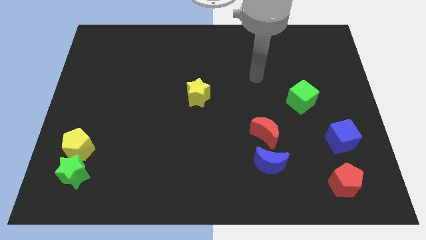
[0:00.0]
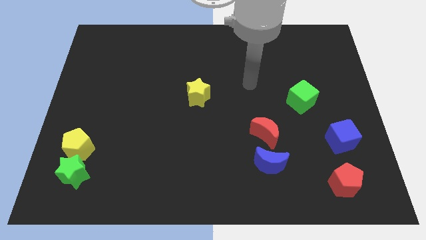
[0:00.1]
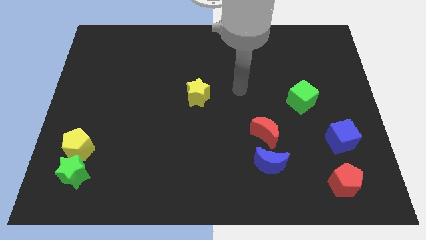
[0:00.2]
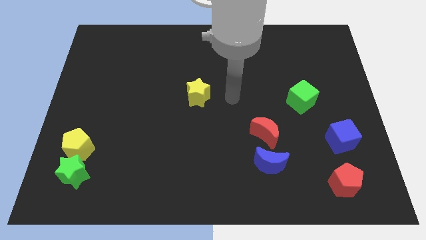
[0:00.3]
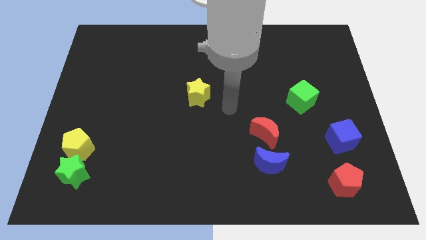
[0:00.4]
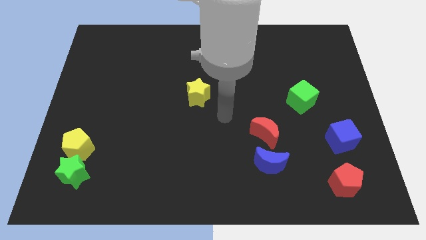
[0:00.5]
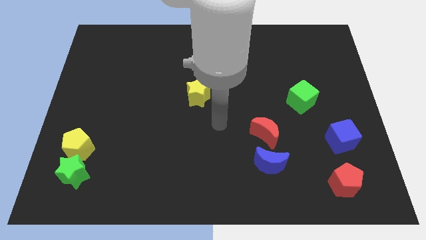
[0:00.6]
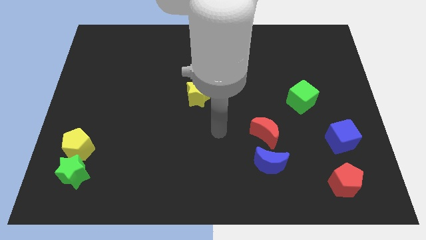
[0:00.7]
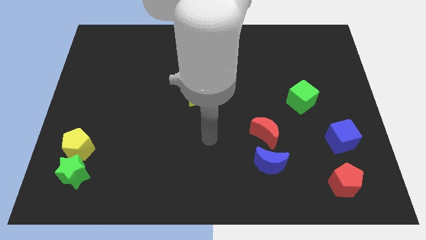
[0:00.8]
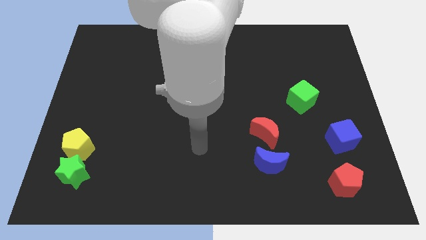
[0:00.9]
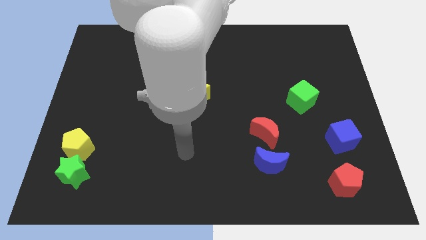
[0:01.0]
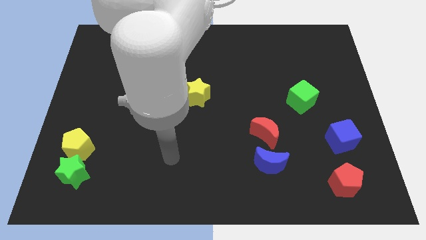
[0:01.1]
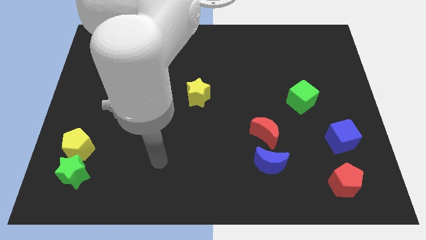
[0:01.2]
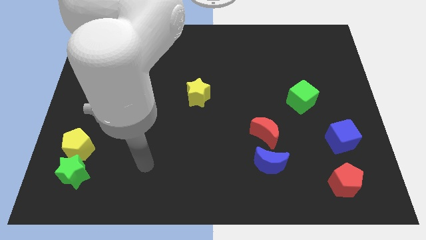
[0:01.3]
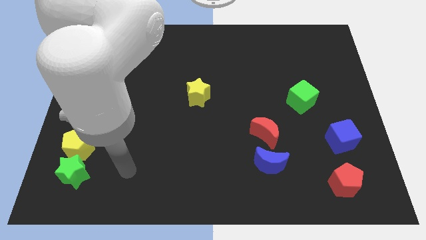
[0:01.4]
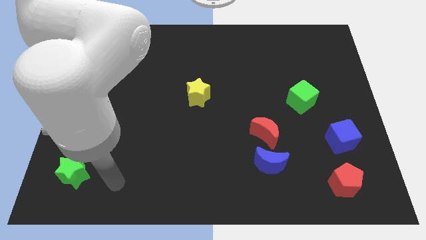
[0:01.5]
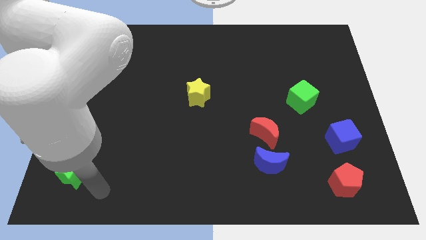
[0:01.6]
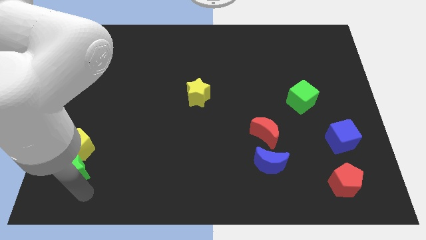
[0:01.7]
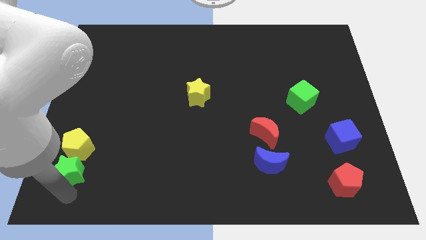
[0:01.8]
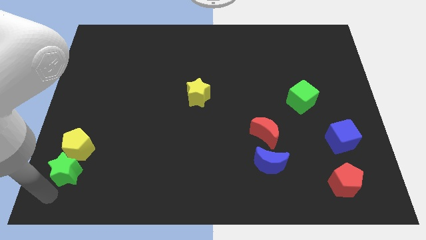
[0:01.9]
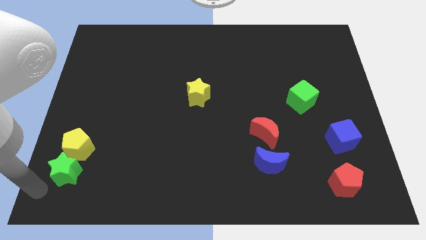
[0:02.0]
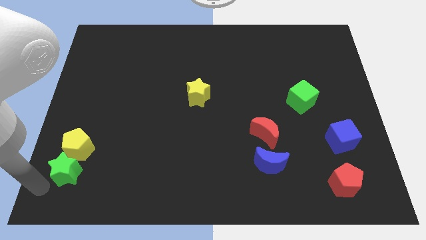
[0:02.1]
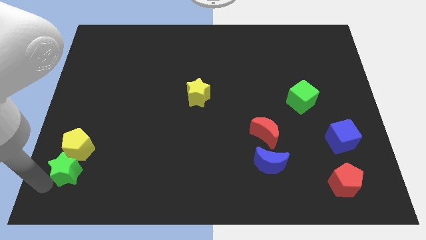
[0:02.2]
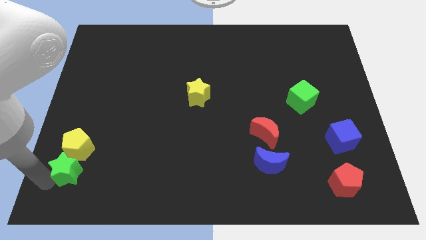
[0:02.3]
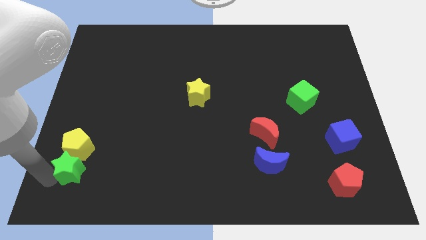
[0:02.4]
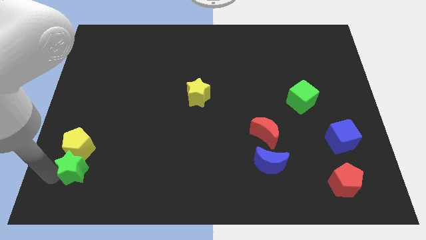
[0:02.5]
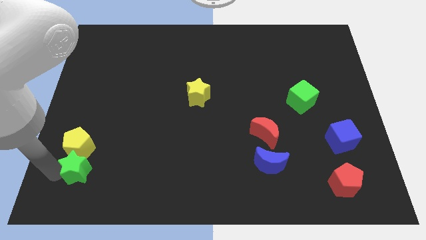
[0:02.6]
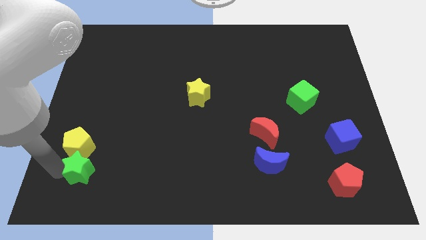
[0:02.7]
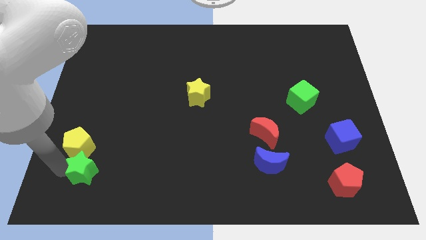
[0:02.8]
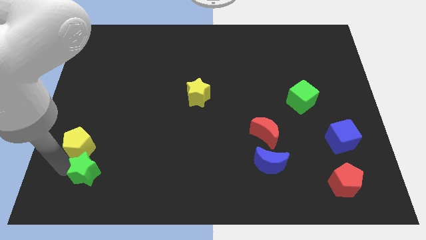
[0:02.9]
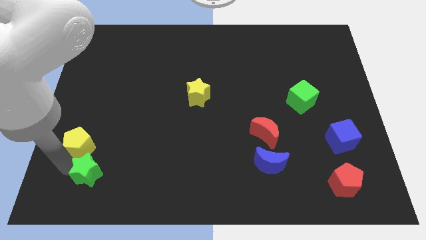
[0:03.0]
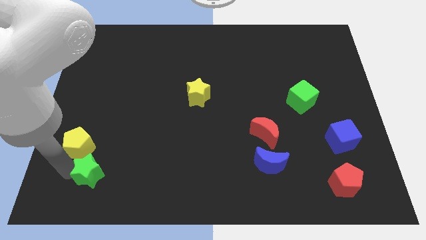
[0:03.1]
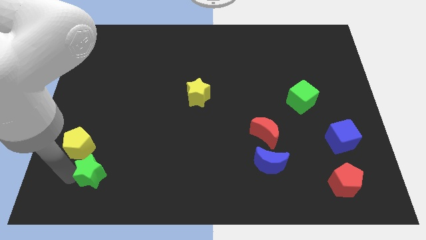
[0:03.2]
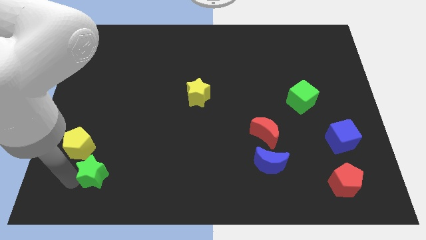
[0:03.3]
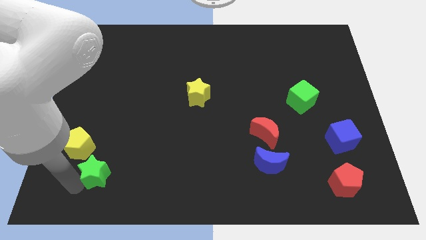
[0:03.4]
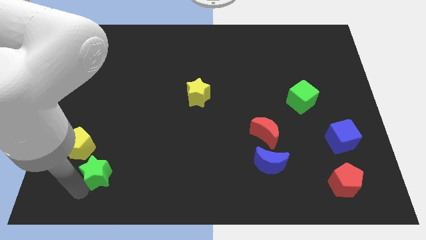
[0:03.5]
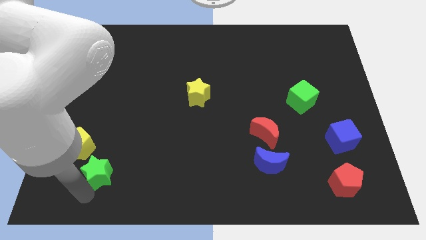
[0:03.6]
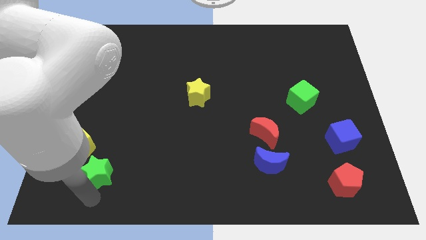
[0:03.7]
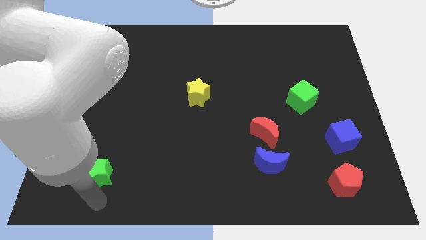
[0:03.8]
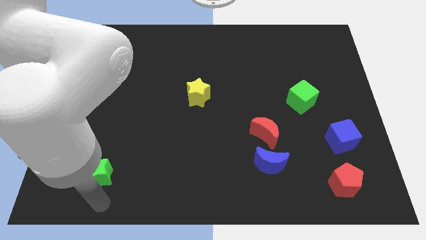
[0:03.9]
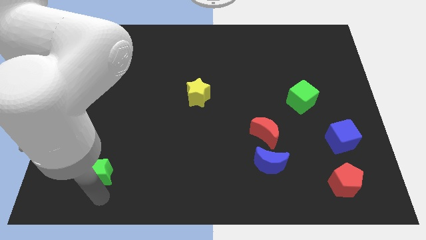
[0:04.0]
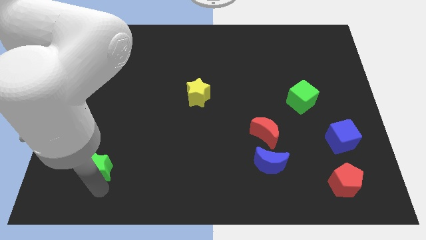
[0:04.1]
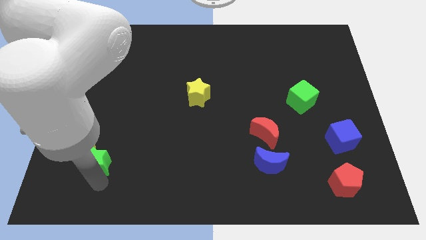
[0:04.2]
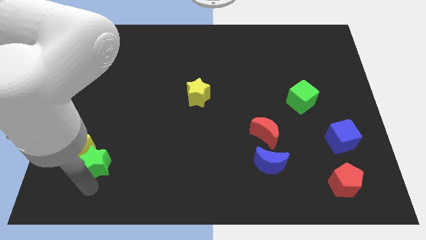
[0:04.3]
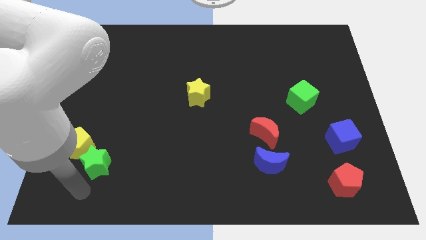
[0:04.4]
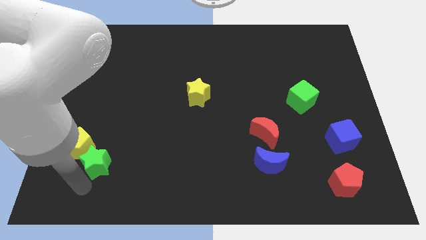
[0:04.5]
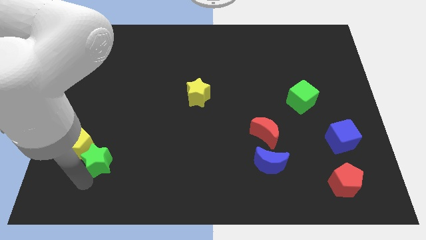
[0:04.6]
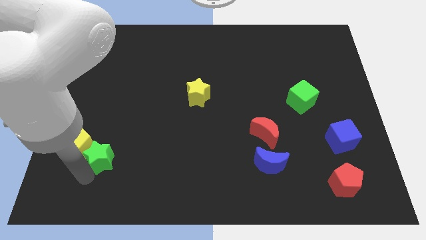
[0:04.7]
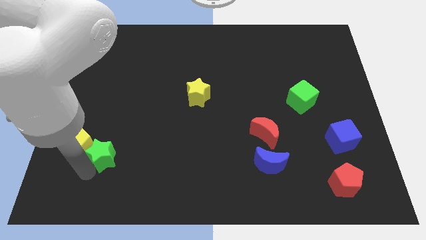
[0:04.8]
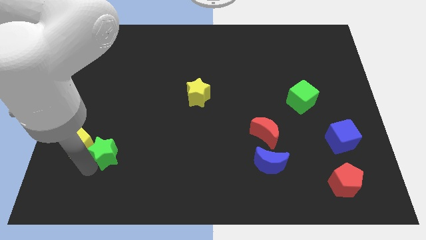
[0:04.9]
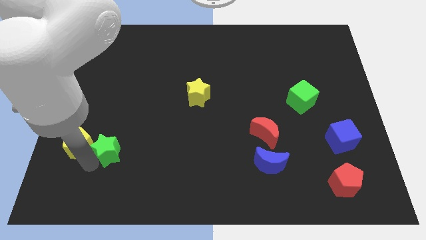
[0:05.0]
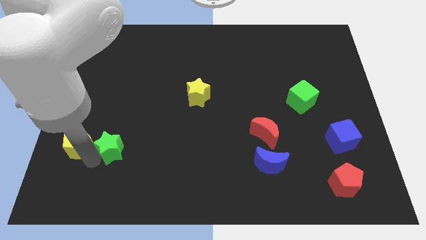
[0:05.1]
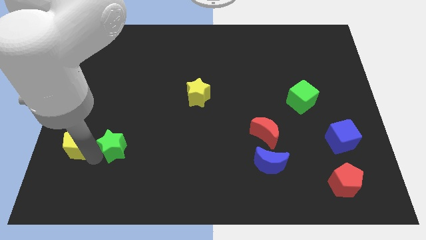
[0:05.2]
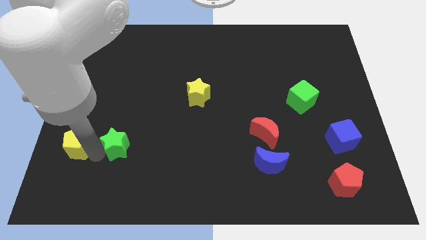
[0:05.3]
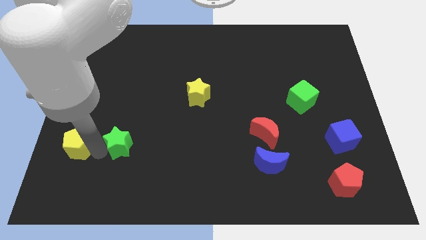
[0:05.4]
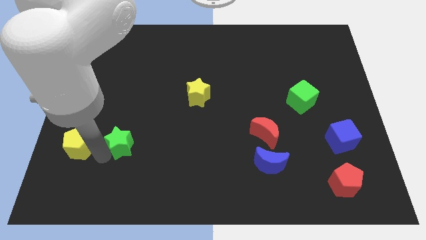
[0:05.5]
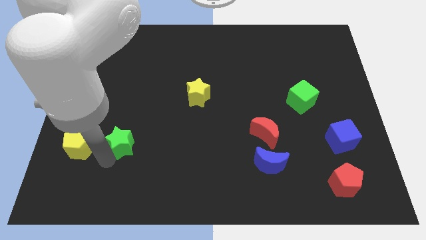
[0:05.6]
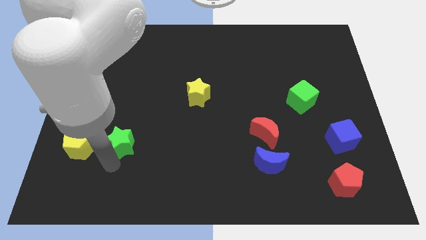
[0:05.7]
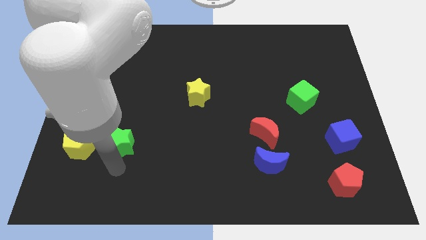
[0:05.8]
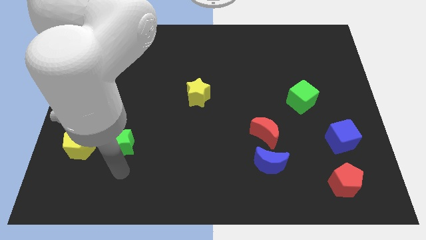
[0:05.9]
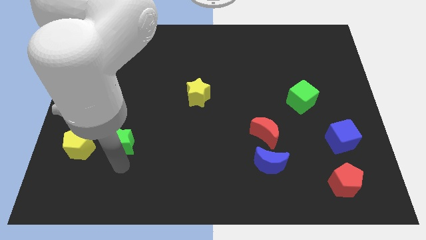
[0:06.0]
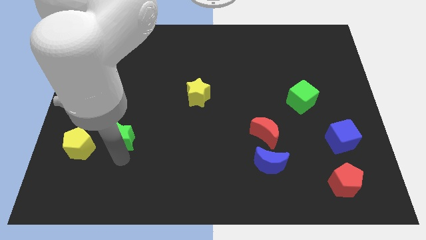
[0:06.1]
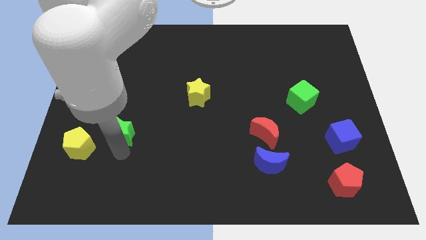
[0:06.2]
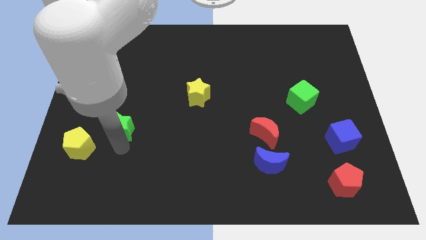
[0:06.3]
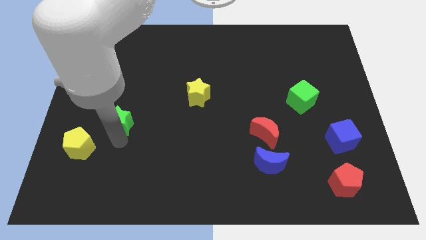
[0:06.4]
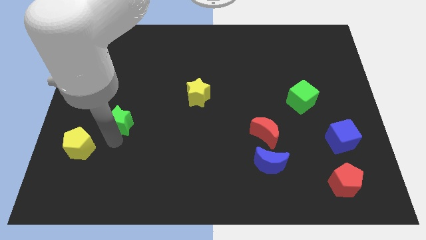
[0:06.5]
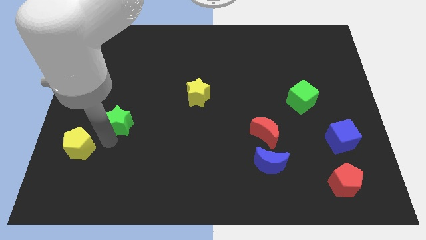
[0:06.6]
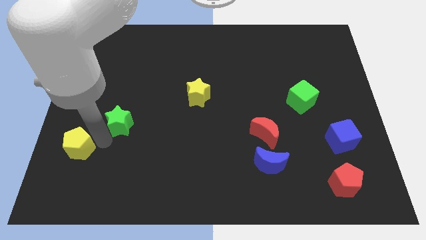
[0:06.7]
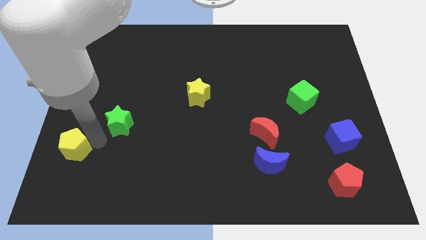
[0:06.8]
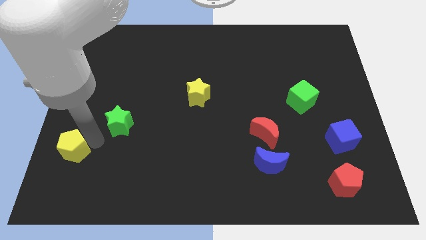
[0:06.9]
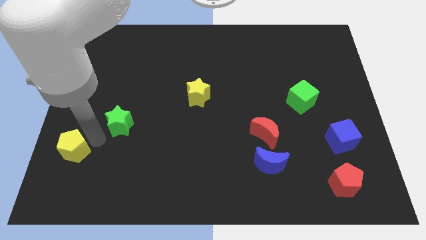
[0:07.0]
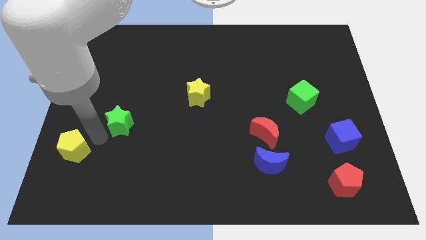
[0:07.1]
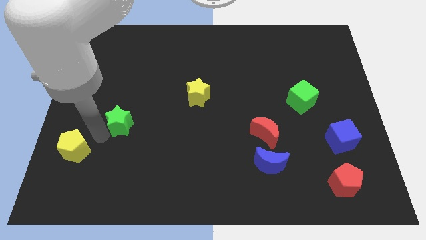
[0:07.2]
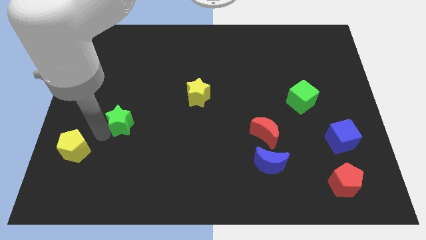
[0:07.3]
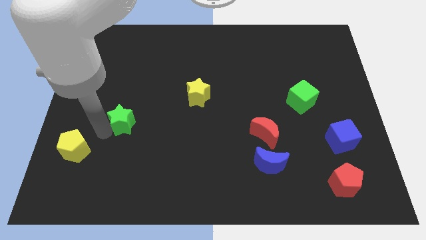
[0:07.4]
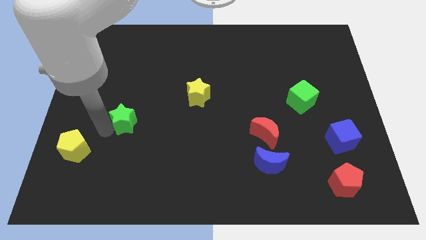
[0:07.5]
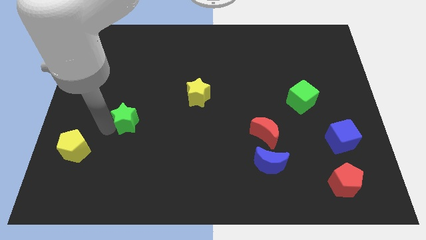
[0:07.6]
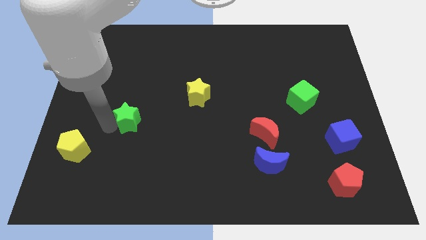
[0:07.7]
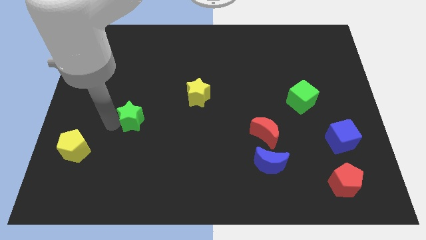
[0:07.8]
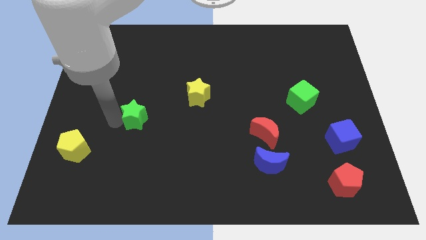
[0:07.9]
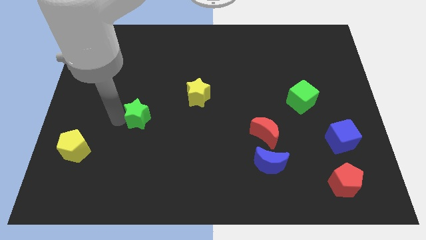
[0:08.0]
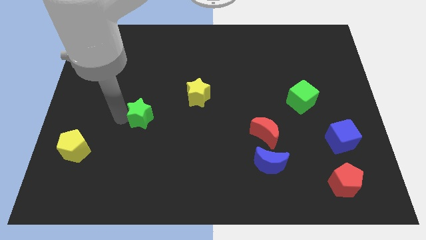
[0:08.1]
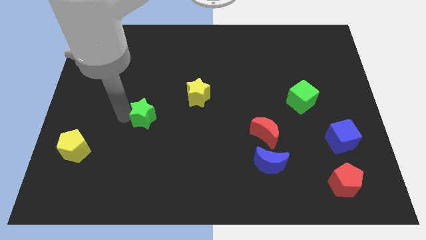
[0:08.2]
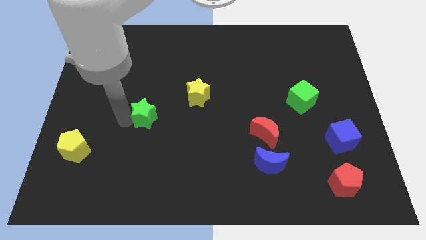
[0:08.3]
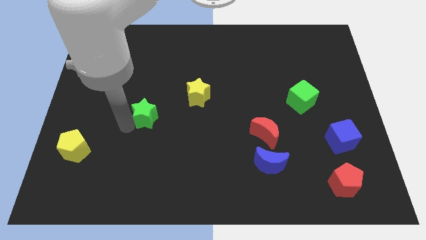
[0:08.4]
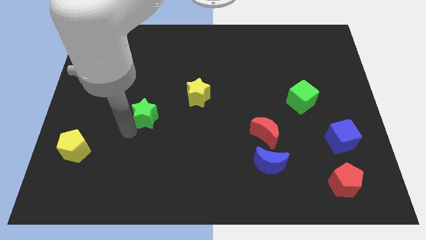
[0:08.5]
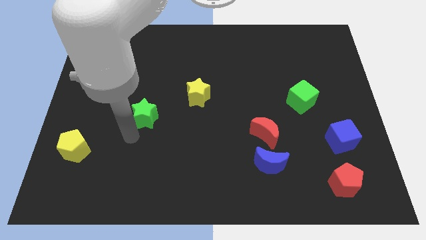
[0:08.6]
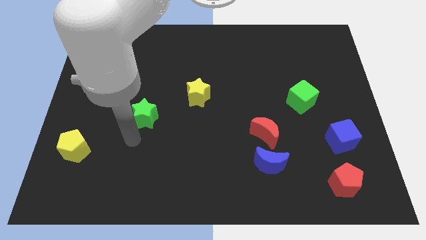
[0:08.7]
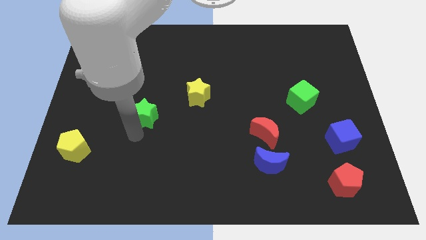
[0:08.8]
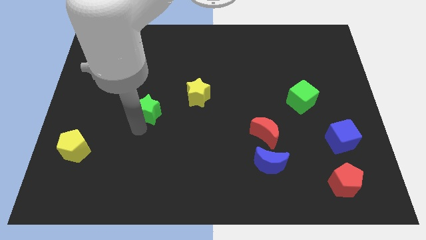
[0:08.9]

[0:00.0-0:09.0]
slide the green star to the left side of the yellow star
